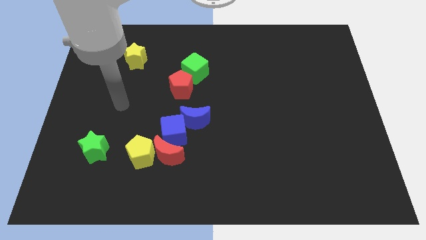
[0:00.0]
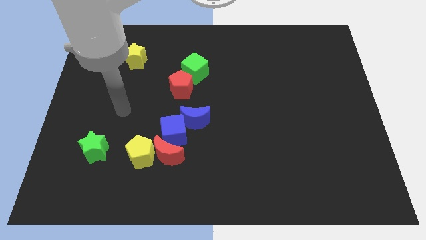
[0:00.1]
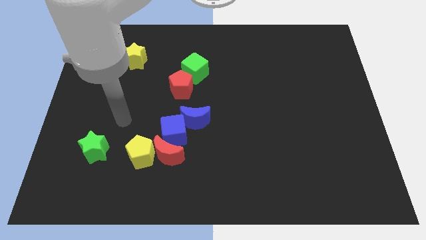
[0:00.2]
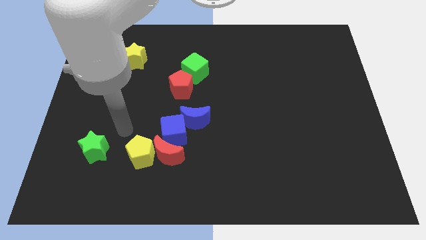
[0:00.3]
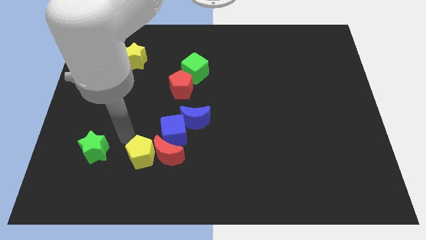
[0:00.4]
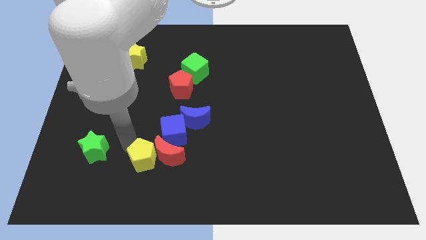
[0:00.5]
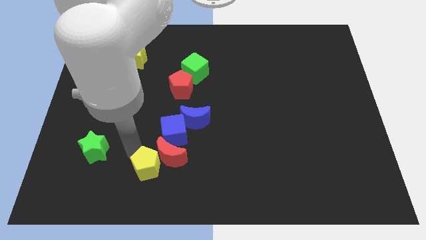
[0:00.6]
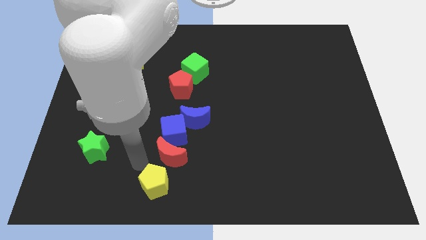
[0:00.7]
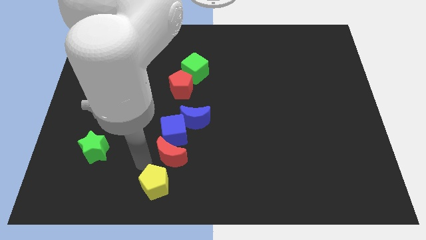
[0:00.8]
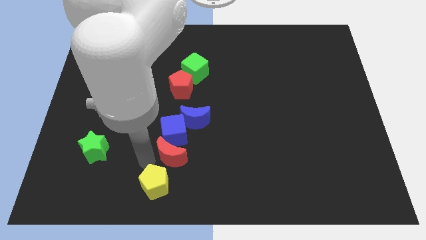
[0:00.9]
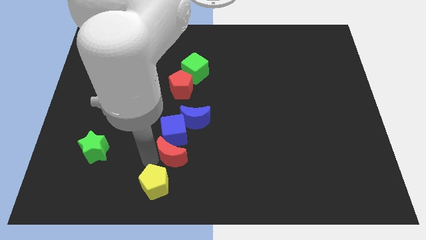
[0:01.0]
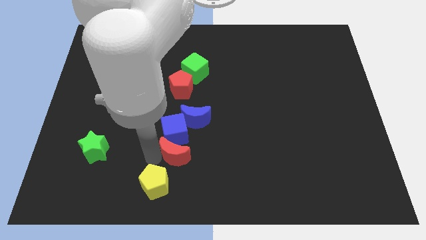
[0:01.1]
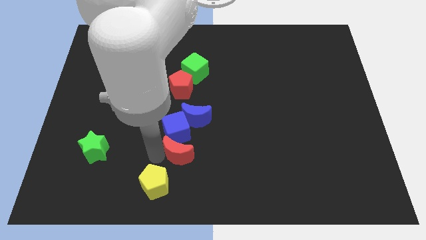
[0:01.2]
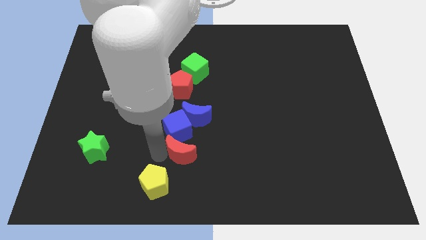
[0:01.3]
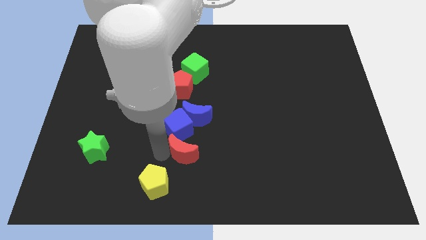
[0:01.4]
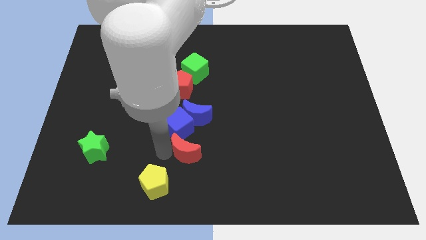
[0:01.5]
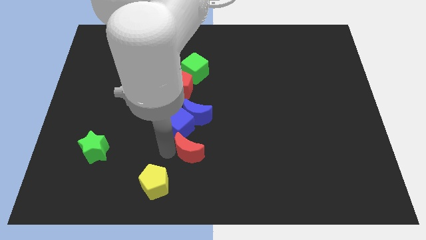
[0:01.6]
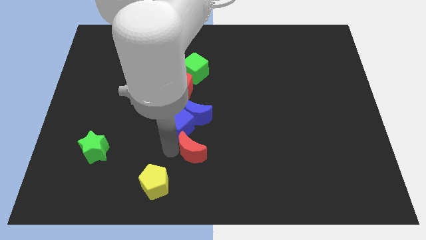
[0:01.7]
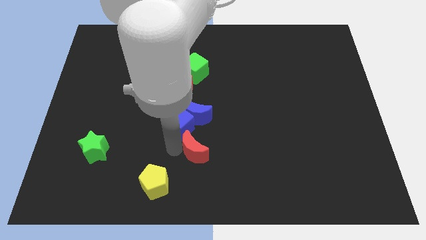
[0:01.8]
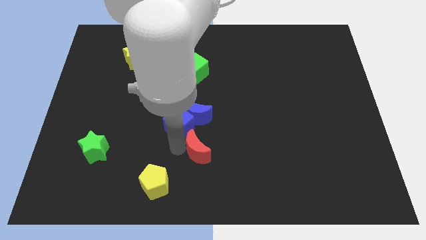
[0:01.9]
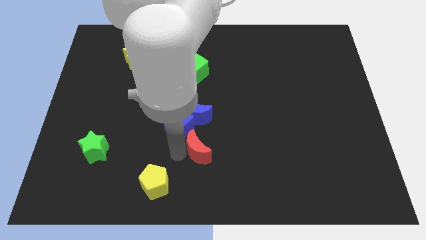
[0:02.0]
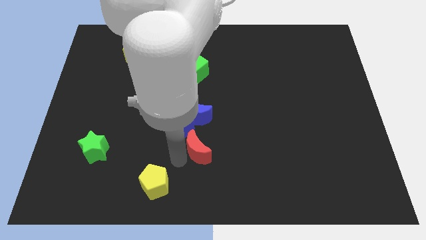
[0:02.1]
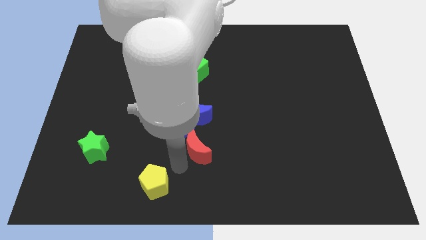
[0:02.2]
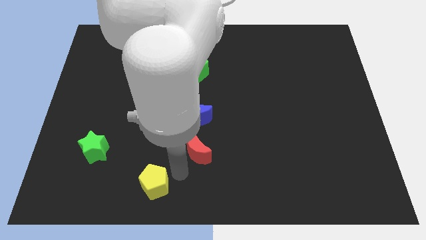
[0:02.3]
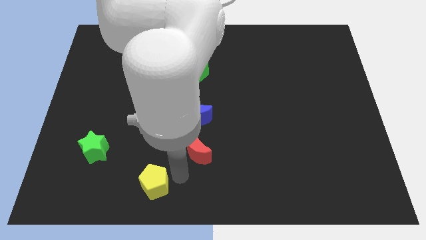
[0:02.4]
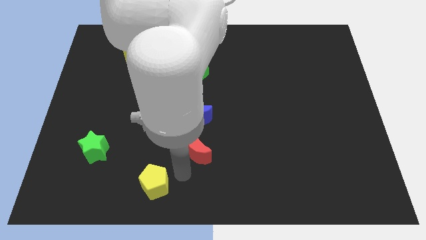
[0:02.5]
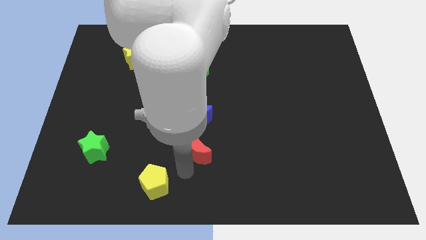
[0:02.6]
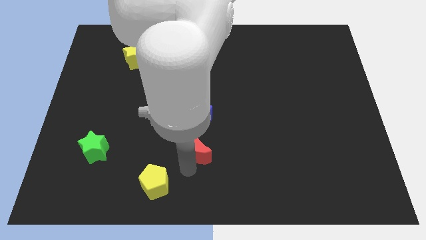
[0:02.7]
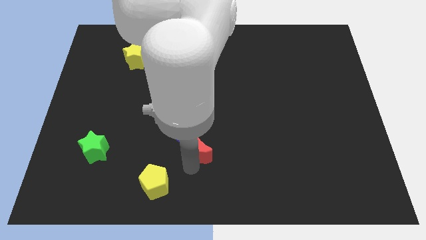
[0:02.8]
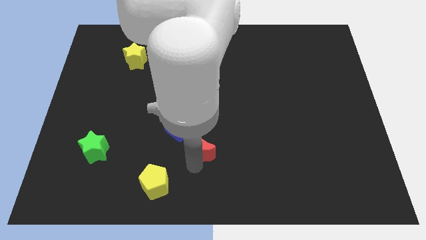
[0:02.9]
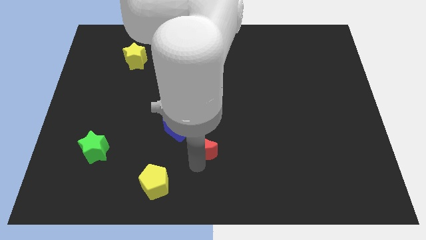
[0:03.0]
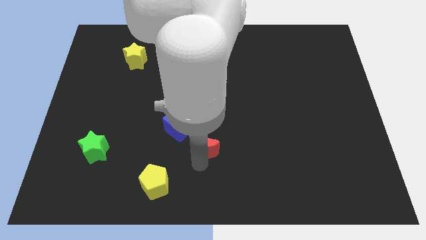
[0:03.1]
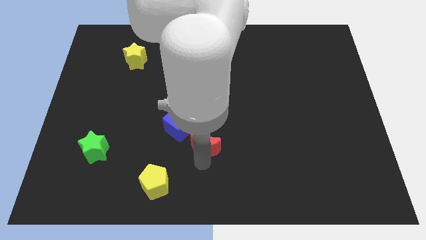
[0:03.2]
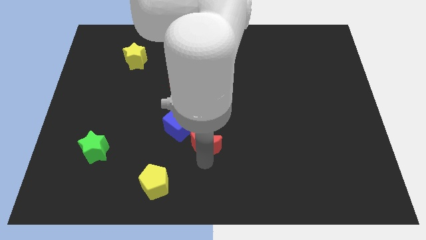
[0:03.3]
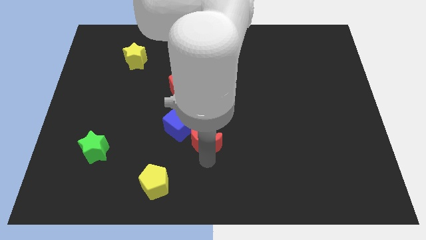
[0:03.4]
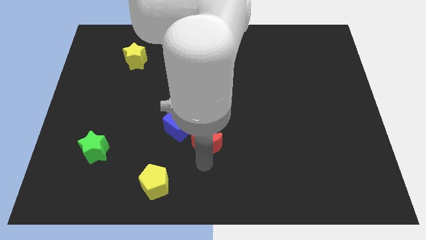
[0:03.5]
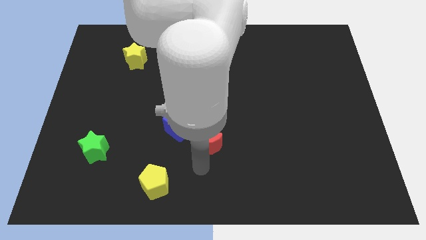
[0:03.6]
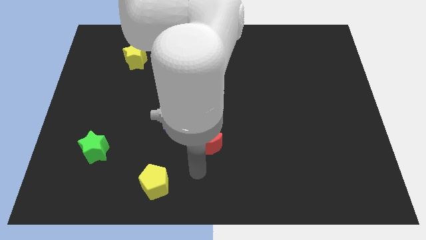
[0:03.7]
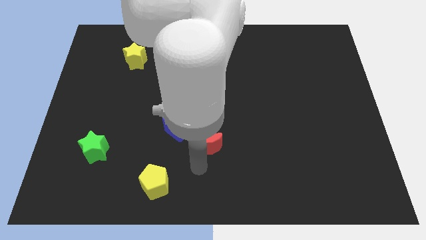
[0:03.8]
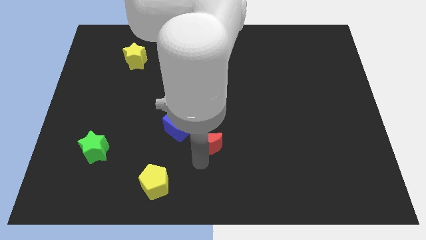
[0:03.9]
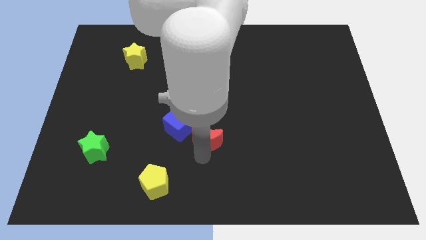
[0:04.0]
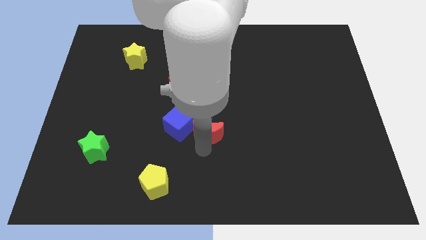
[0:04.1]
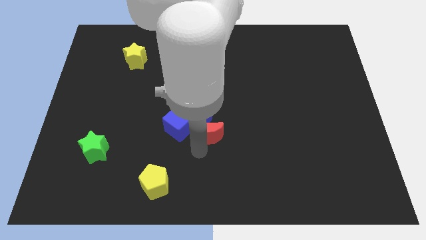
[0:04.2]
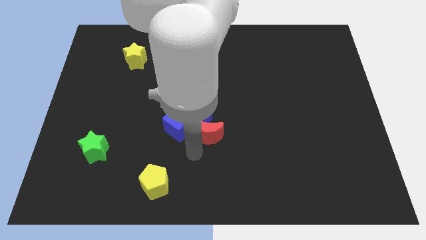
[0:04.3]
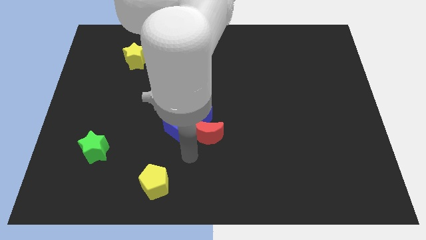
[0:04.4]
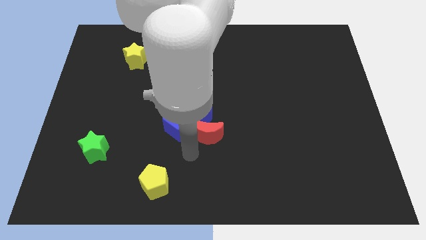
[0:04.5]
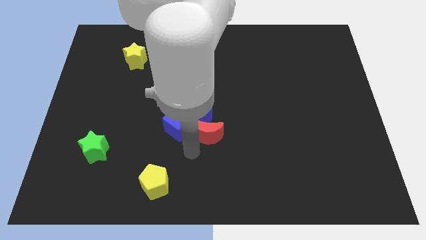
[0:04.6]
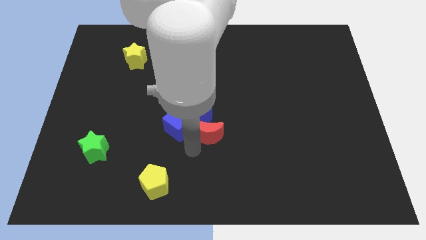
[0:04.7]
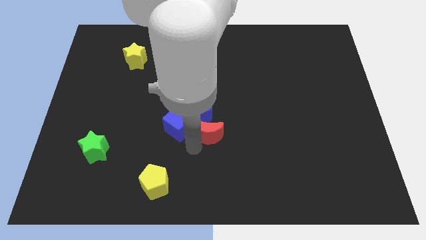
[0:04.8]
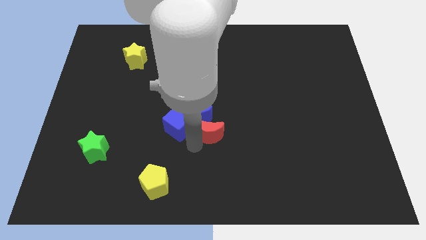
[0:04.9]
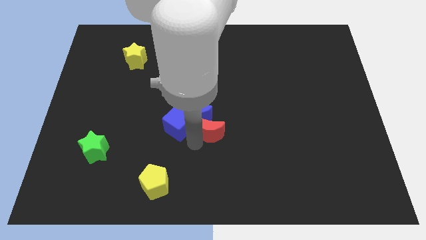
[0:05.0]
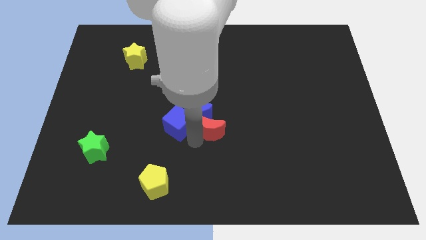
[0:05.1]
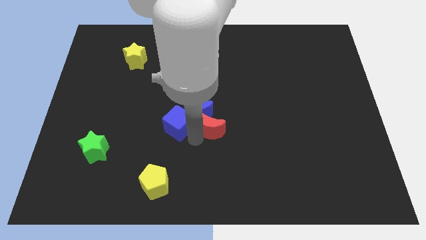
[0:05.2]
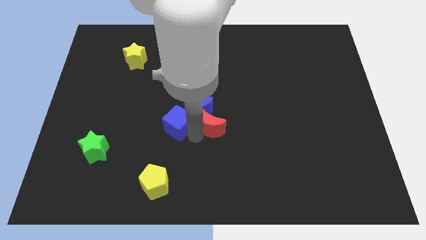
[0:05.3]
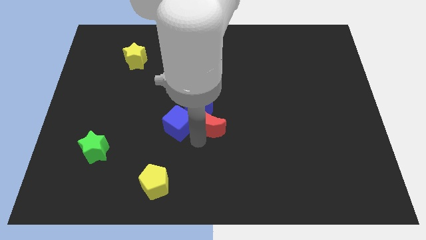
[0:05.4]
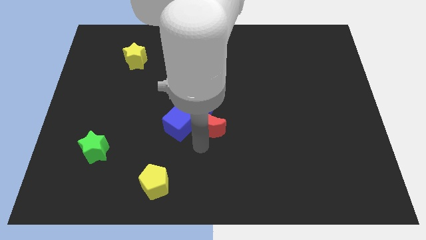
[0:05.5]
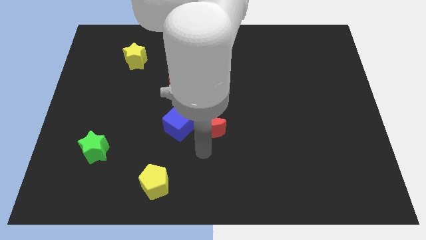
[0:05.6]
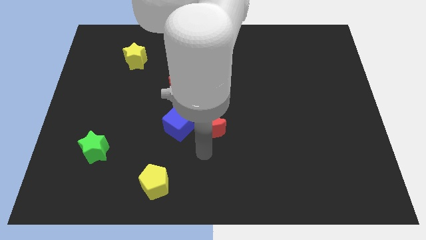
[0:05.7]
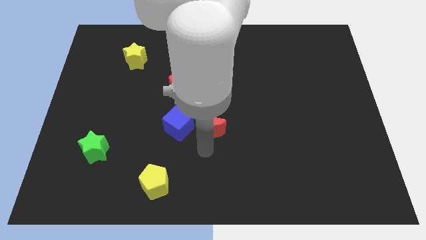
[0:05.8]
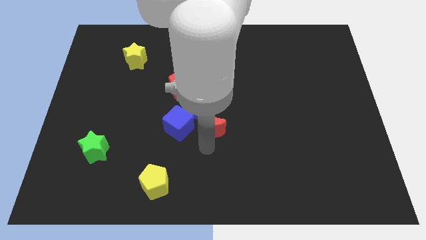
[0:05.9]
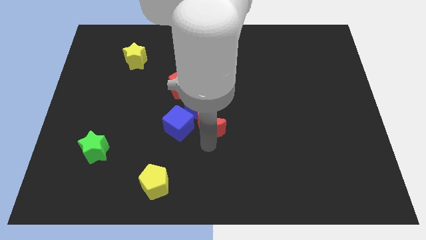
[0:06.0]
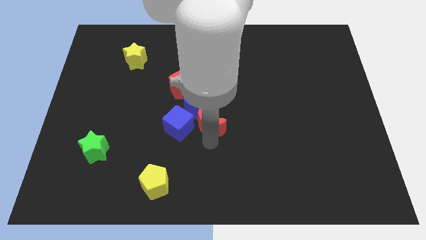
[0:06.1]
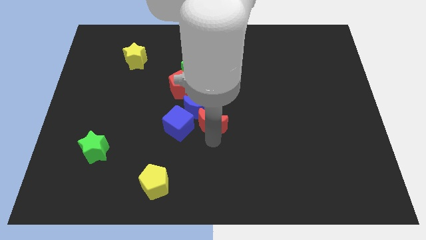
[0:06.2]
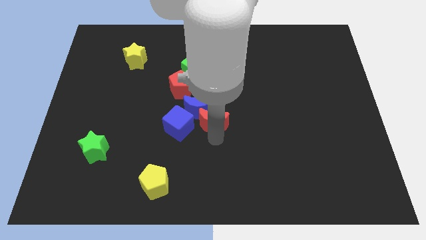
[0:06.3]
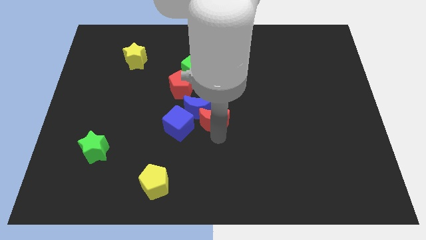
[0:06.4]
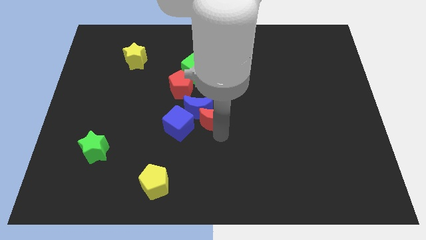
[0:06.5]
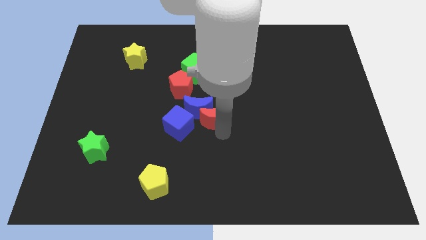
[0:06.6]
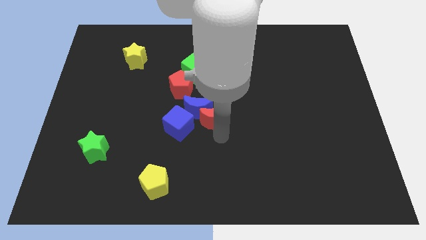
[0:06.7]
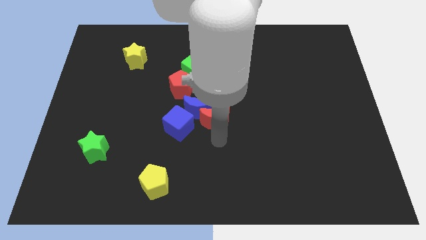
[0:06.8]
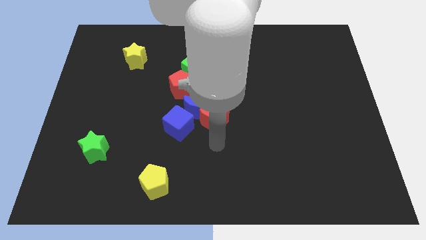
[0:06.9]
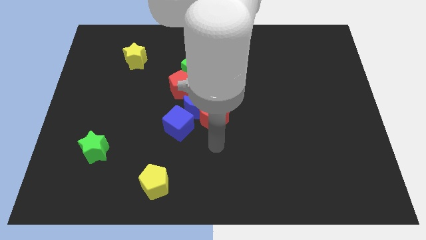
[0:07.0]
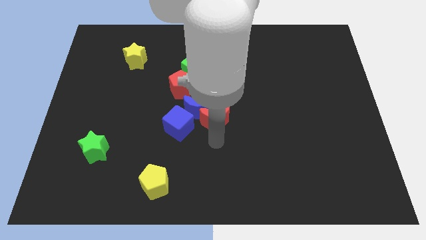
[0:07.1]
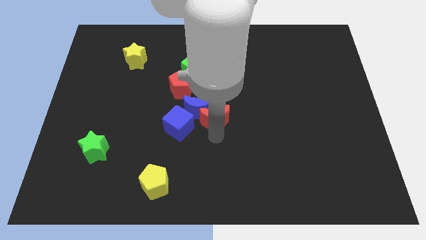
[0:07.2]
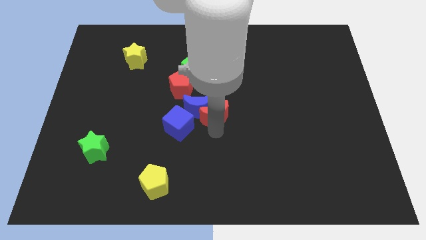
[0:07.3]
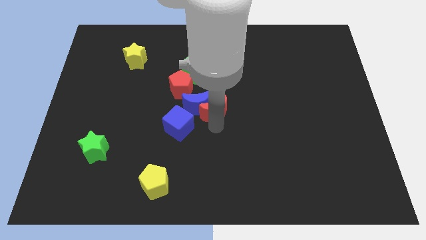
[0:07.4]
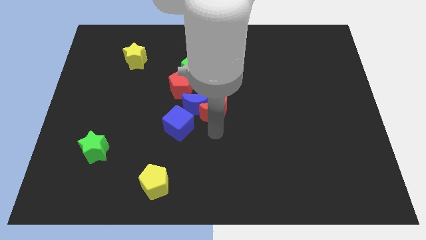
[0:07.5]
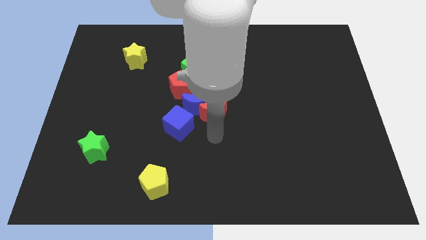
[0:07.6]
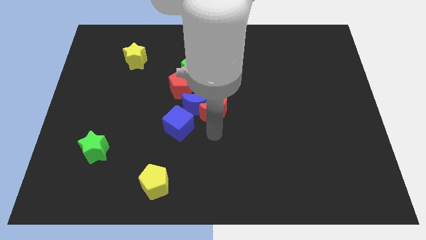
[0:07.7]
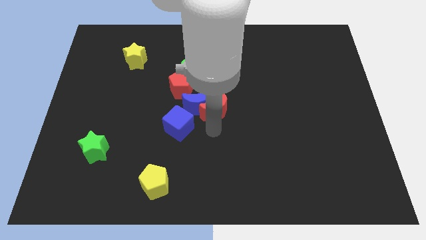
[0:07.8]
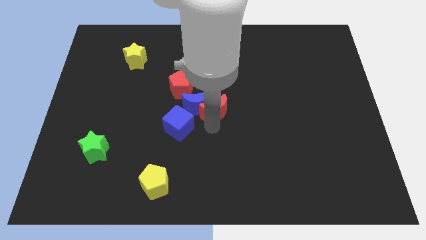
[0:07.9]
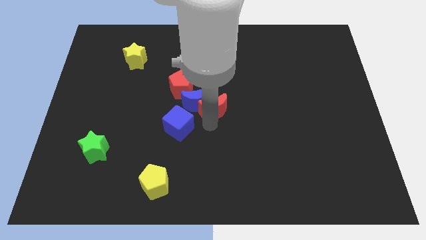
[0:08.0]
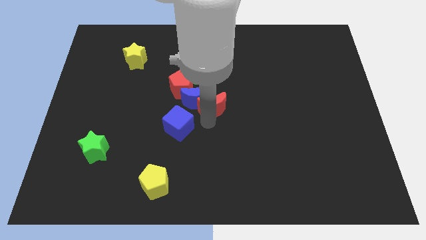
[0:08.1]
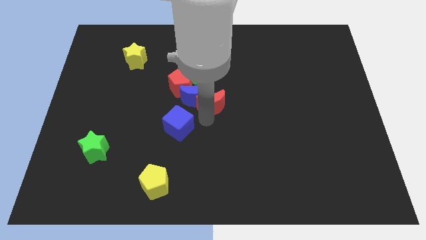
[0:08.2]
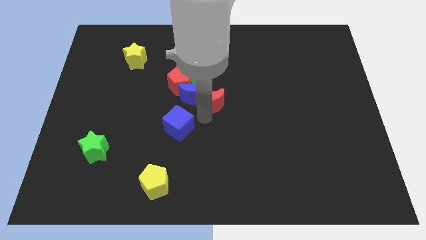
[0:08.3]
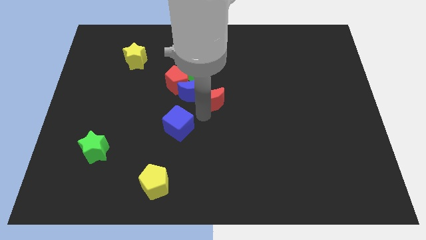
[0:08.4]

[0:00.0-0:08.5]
move the red moon to the bottom right side of the green cube
